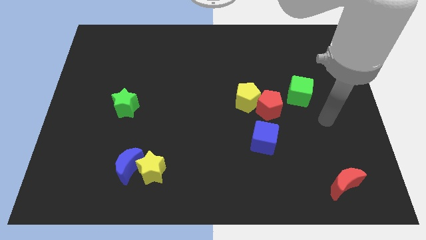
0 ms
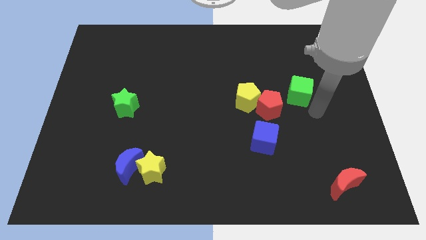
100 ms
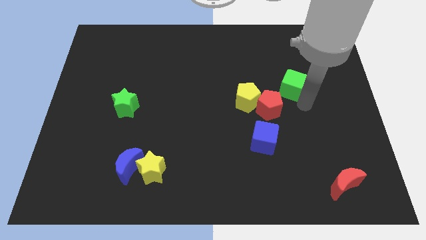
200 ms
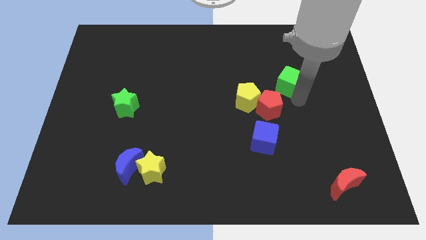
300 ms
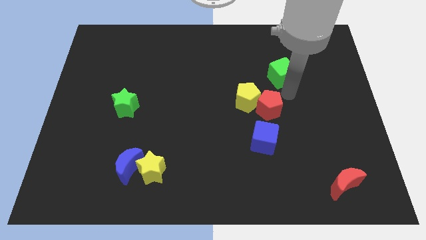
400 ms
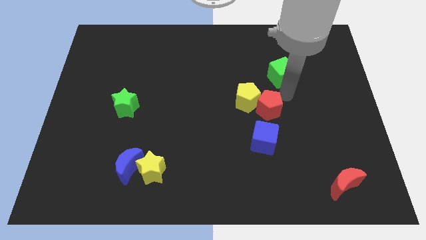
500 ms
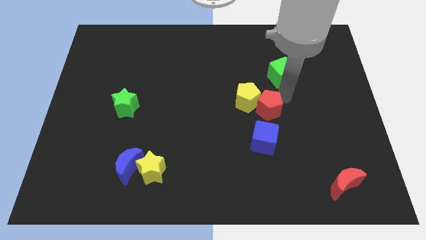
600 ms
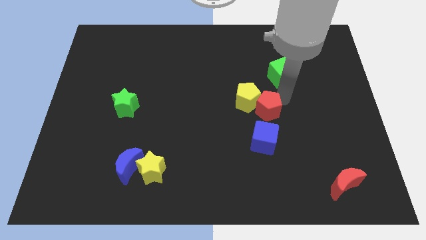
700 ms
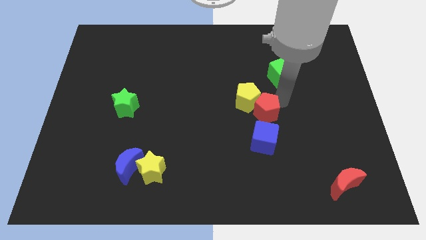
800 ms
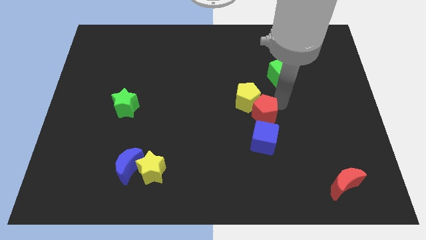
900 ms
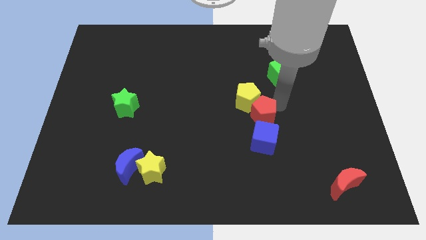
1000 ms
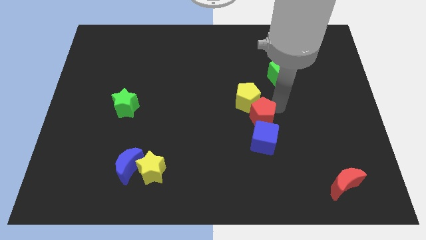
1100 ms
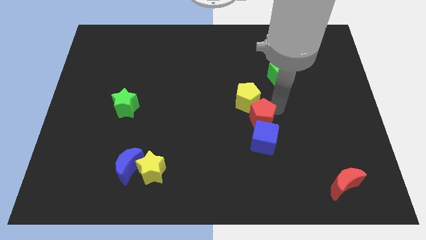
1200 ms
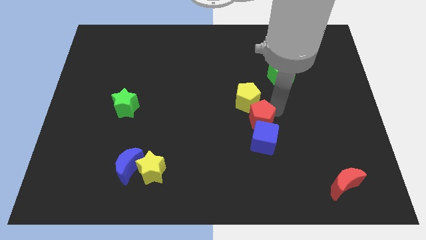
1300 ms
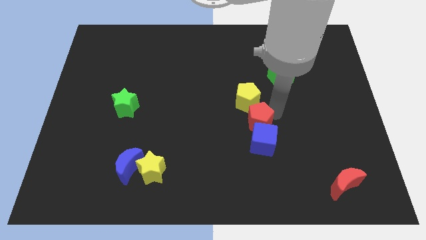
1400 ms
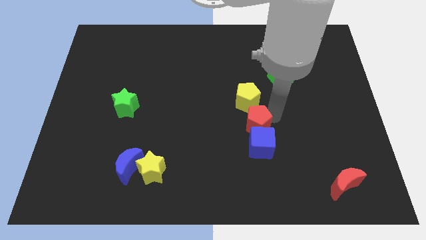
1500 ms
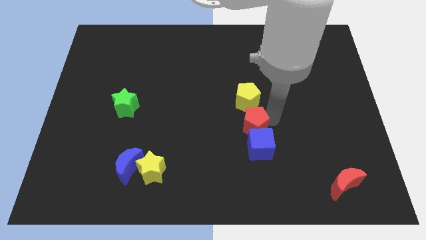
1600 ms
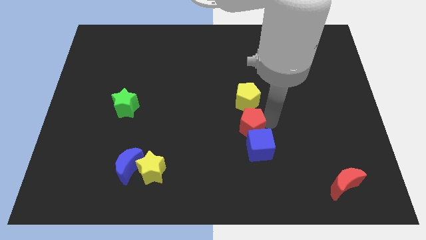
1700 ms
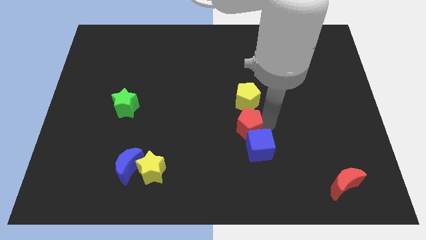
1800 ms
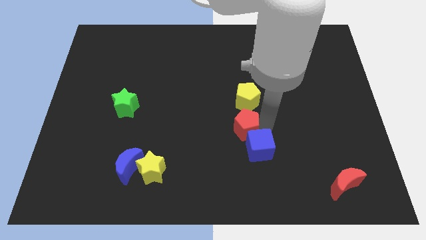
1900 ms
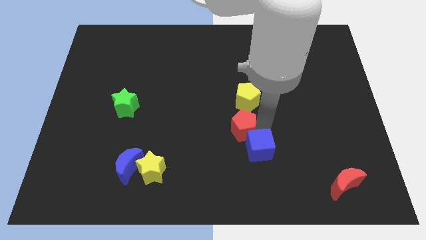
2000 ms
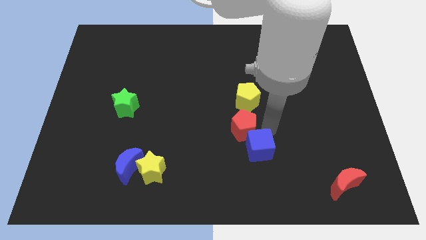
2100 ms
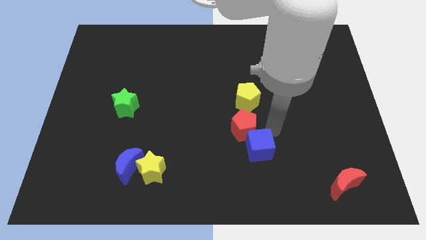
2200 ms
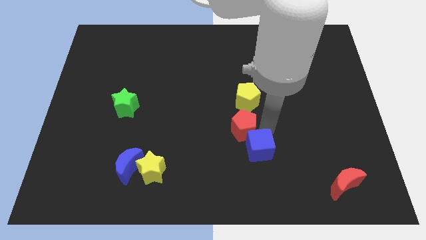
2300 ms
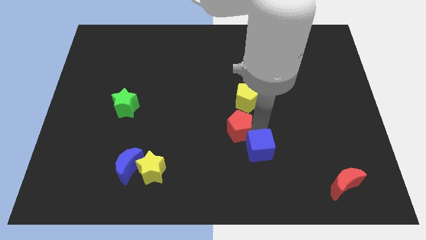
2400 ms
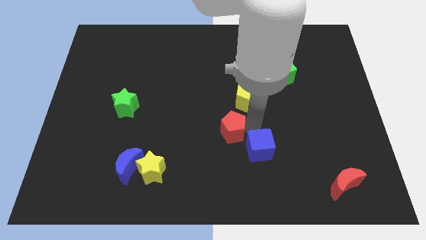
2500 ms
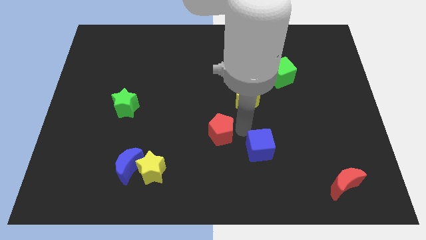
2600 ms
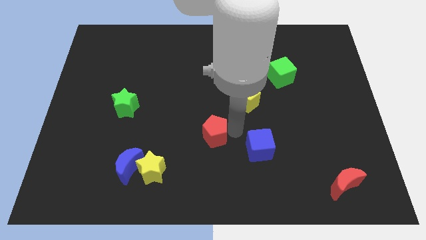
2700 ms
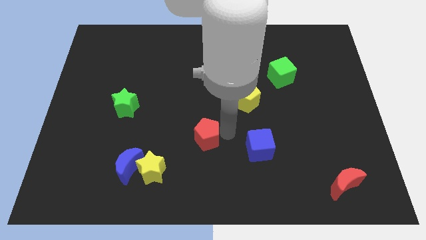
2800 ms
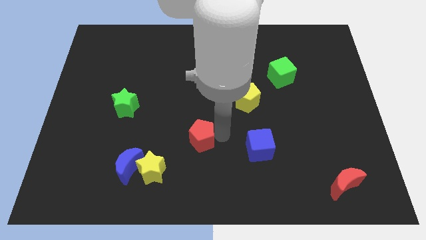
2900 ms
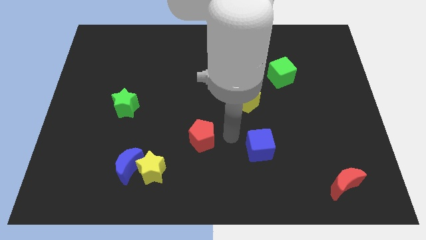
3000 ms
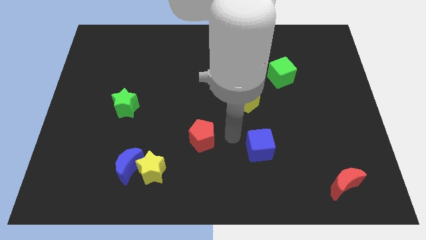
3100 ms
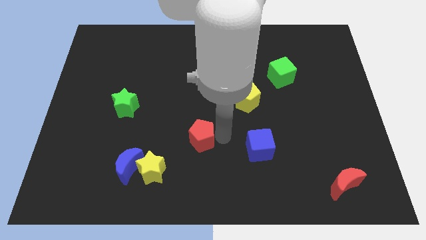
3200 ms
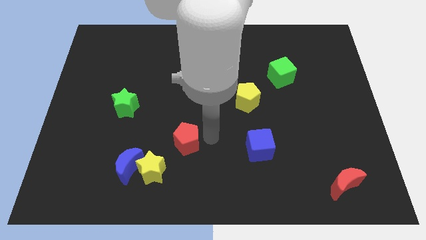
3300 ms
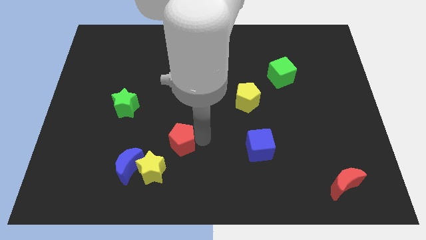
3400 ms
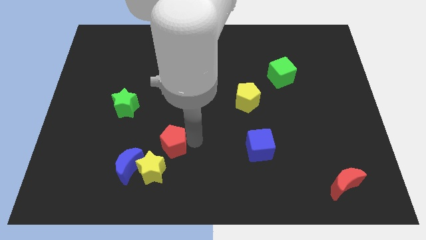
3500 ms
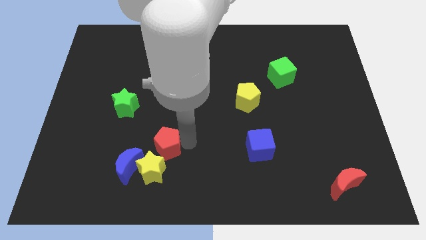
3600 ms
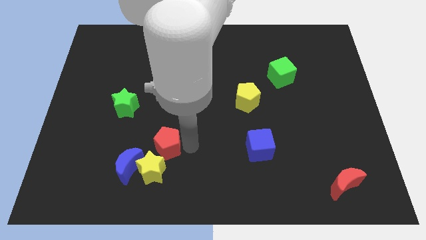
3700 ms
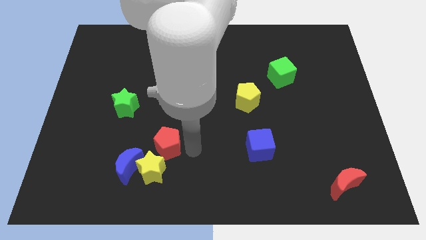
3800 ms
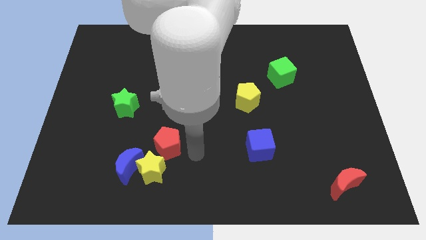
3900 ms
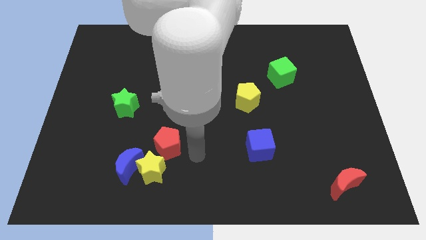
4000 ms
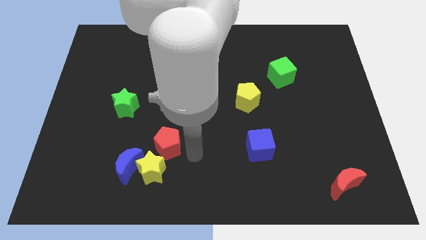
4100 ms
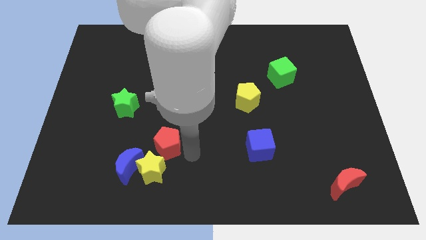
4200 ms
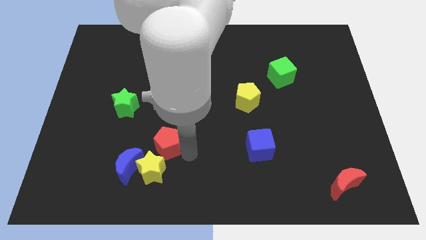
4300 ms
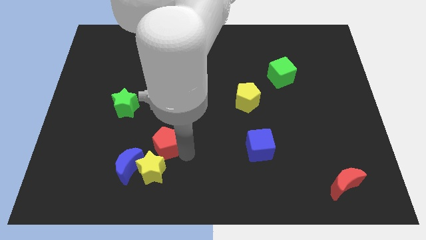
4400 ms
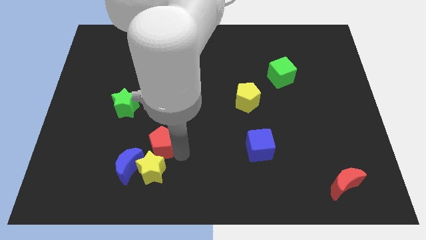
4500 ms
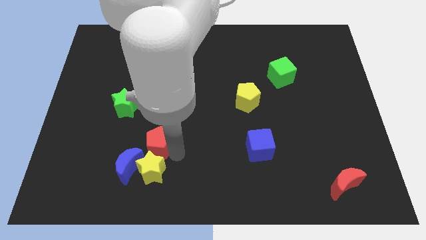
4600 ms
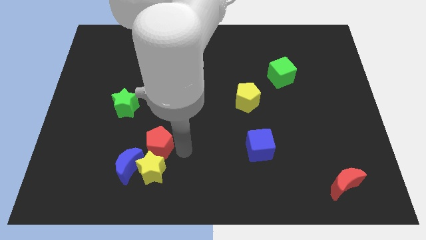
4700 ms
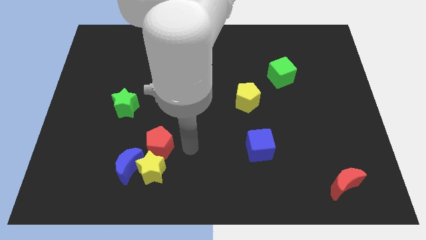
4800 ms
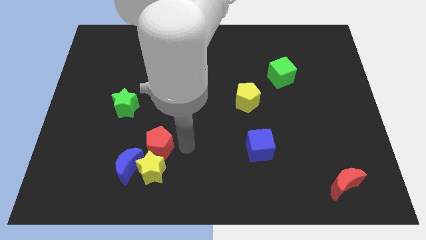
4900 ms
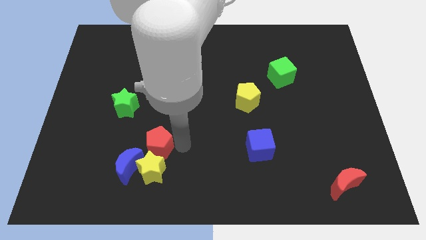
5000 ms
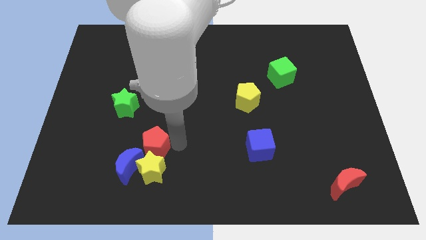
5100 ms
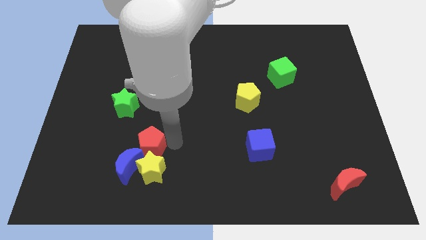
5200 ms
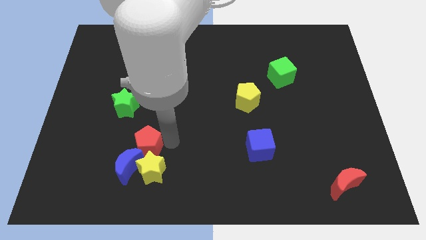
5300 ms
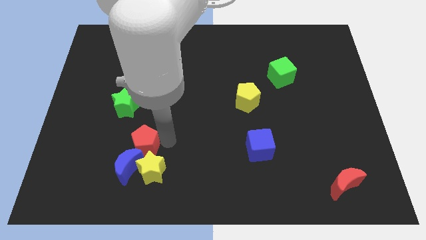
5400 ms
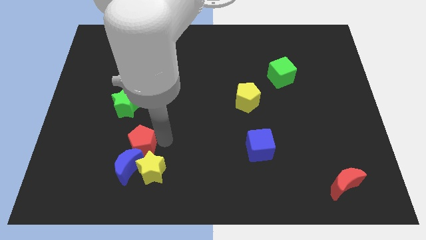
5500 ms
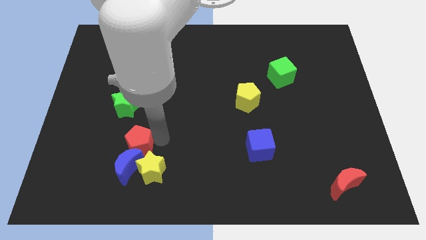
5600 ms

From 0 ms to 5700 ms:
put the red pentagon to the bottom of the green star

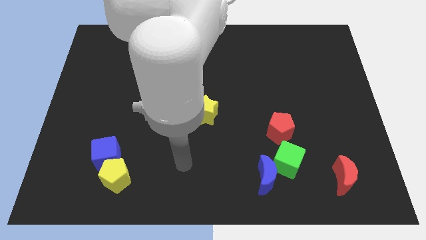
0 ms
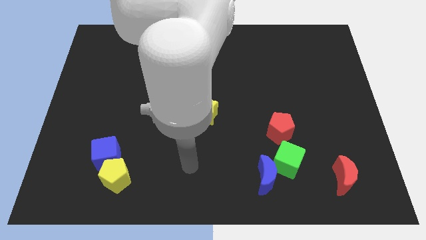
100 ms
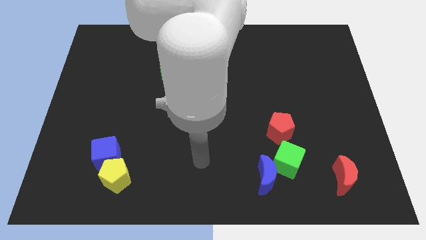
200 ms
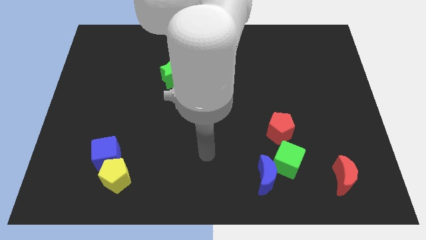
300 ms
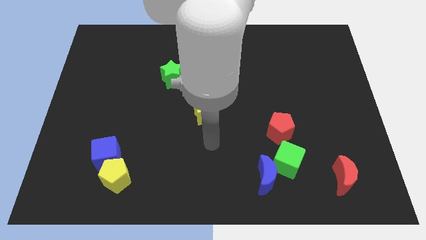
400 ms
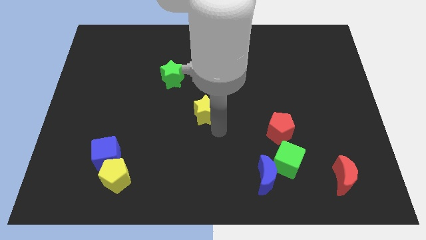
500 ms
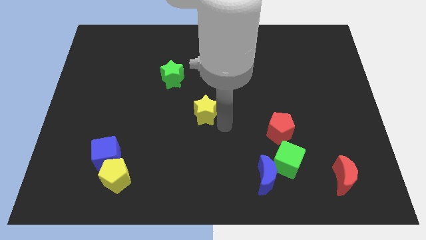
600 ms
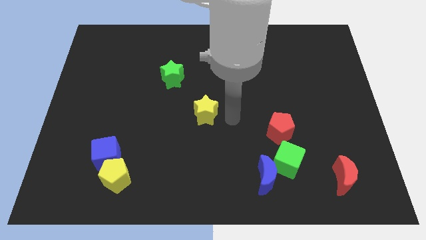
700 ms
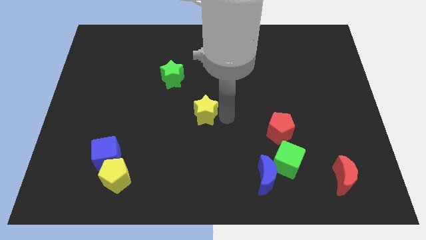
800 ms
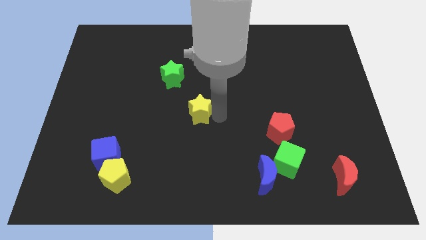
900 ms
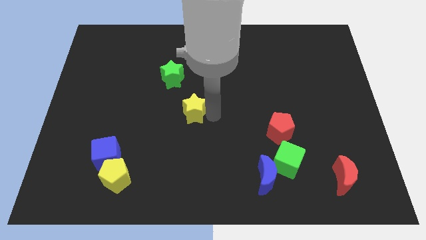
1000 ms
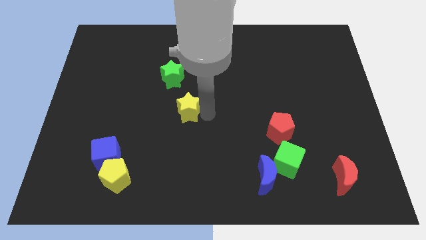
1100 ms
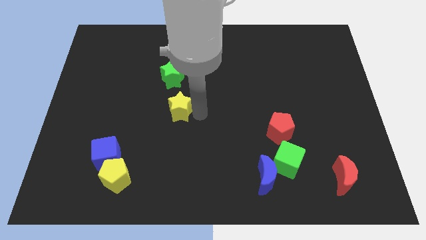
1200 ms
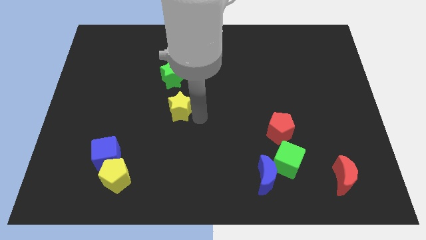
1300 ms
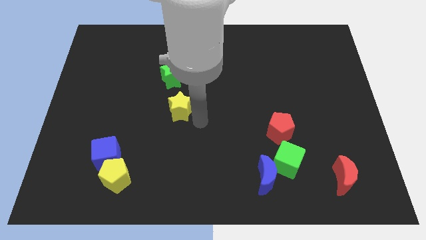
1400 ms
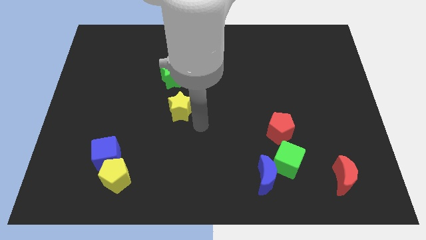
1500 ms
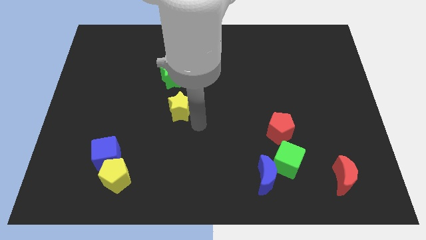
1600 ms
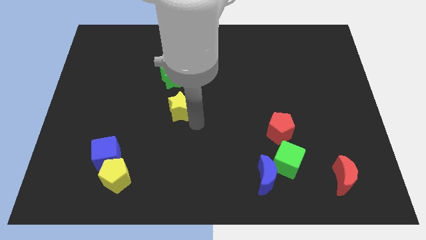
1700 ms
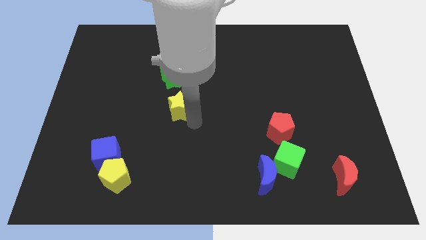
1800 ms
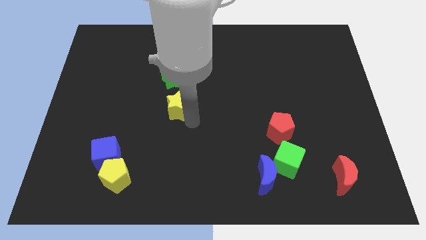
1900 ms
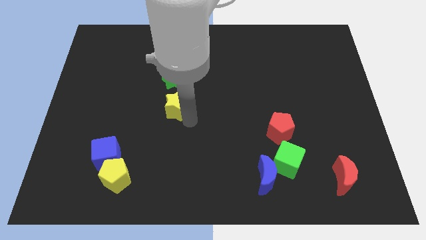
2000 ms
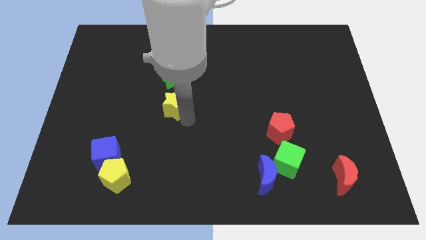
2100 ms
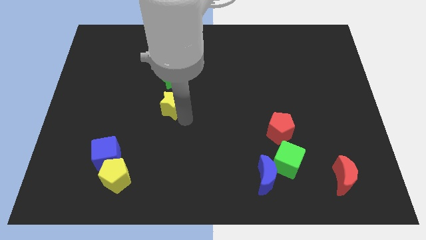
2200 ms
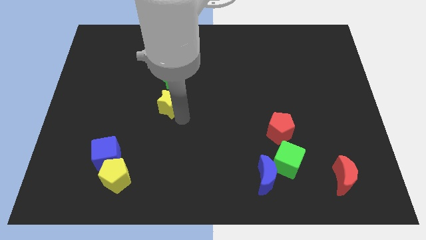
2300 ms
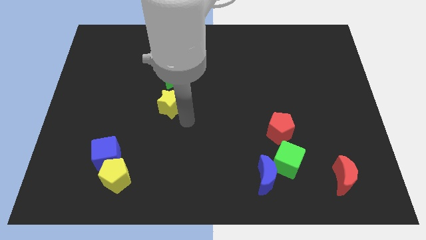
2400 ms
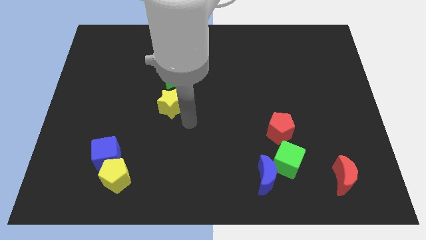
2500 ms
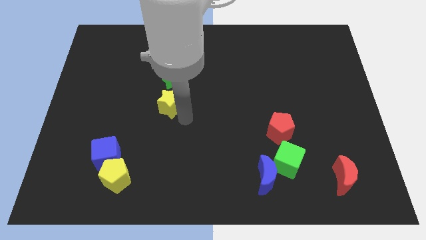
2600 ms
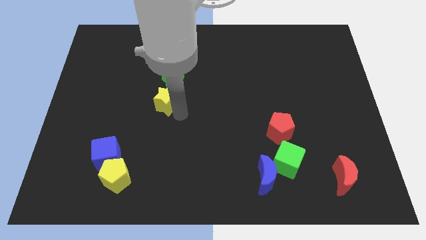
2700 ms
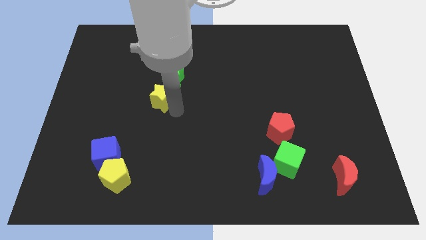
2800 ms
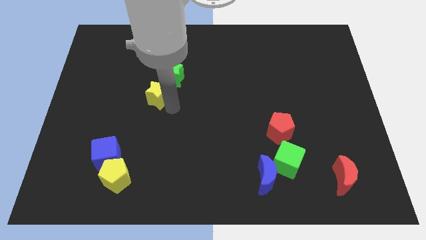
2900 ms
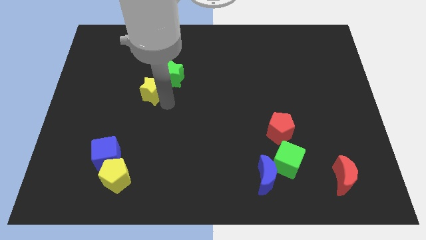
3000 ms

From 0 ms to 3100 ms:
put the yellow star to the left side of the green star
